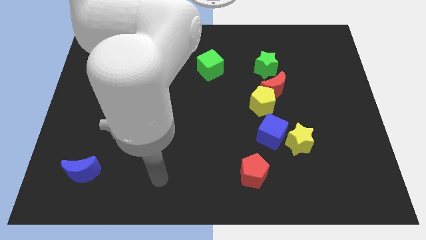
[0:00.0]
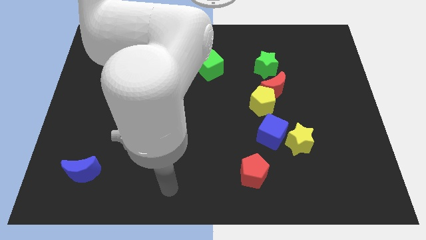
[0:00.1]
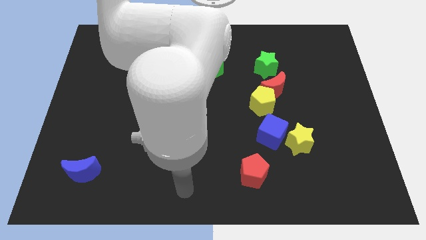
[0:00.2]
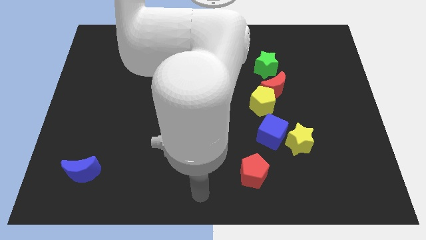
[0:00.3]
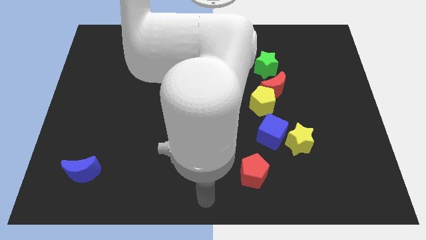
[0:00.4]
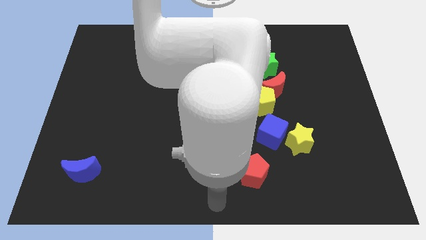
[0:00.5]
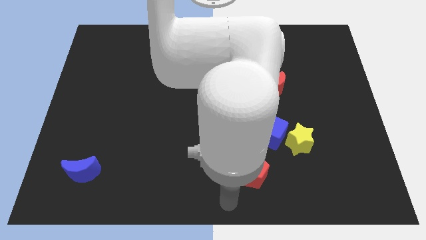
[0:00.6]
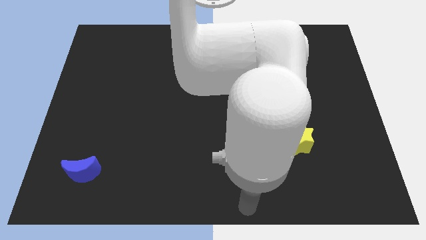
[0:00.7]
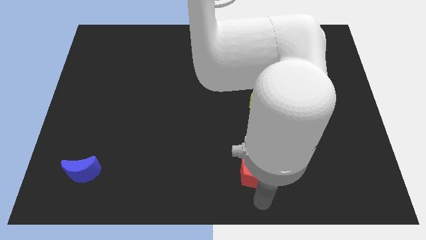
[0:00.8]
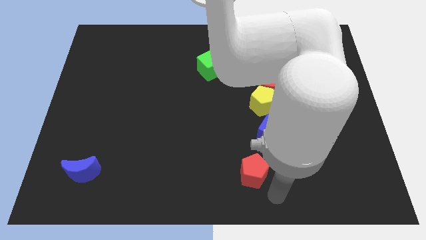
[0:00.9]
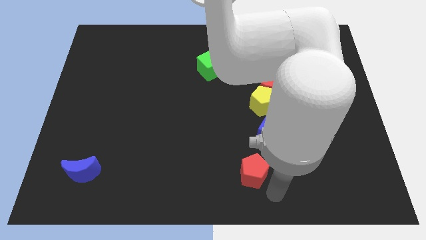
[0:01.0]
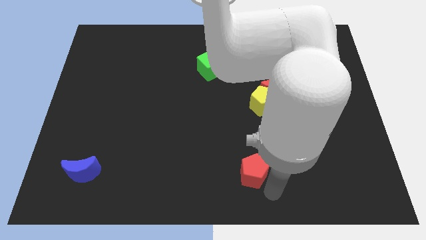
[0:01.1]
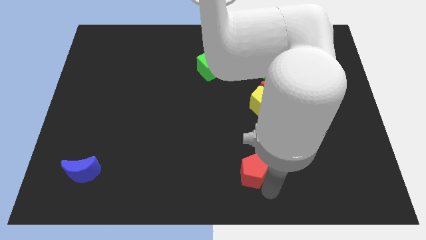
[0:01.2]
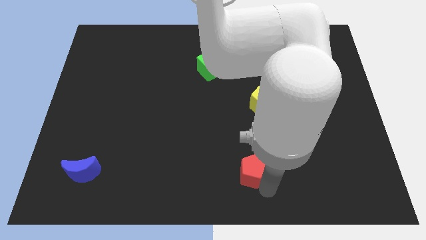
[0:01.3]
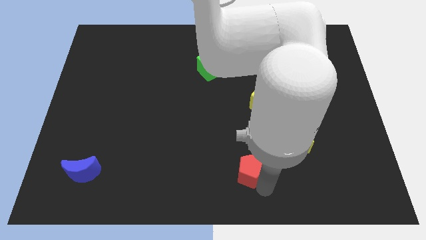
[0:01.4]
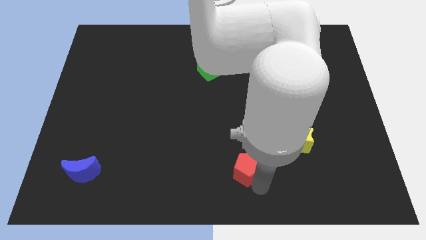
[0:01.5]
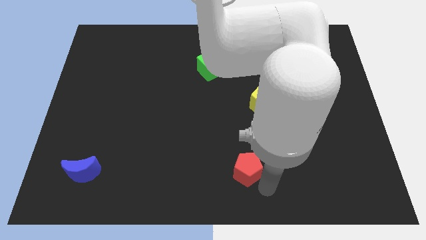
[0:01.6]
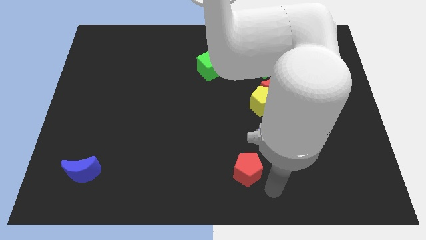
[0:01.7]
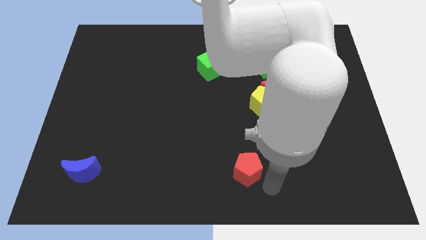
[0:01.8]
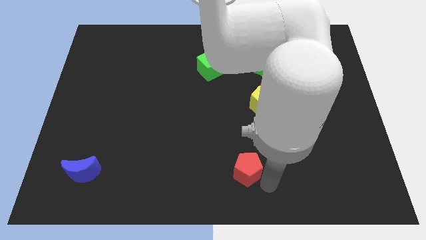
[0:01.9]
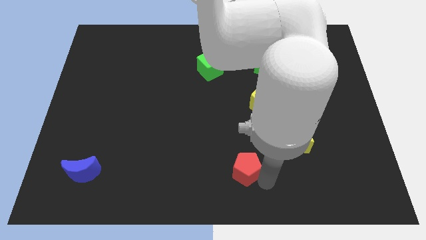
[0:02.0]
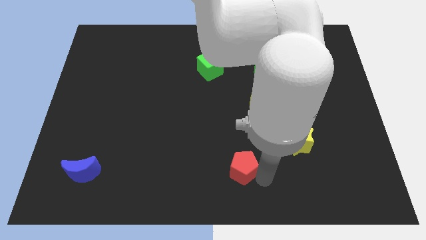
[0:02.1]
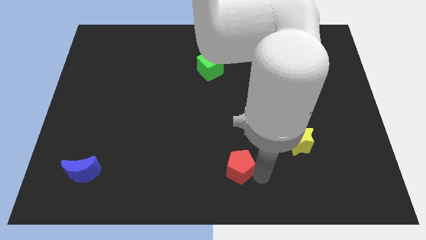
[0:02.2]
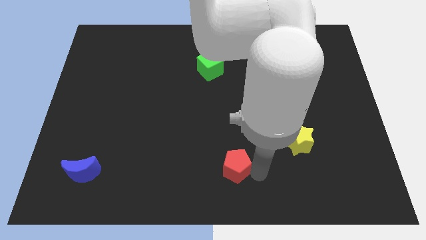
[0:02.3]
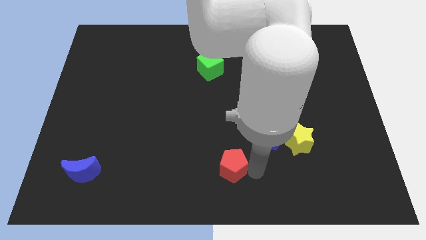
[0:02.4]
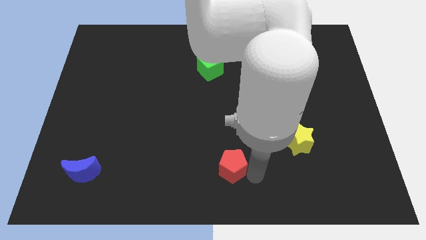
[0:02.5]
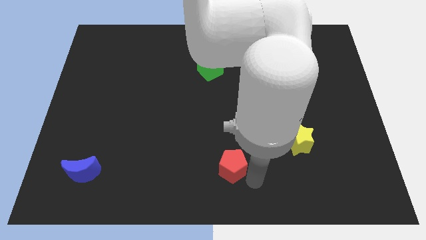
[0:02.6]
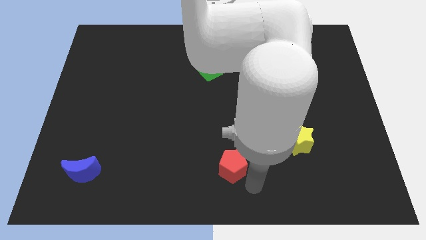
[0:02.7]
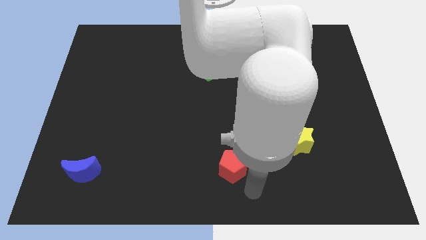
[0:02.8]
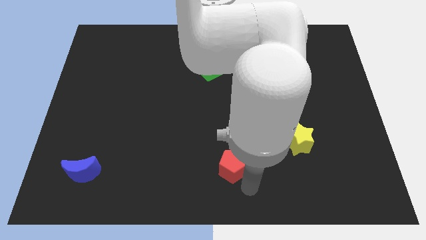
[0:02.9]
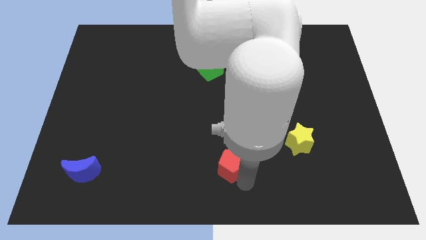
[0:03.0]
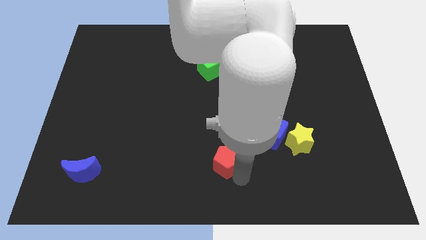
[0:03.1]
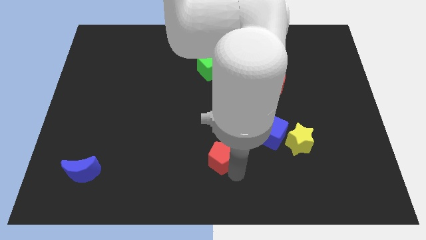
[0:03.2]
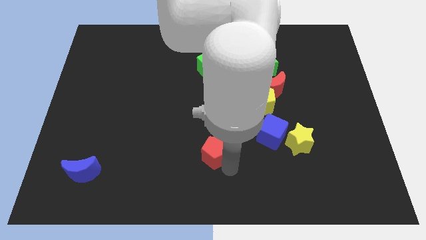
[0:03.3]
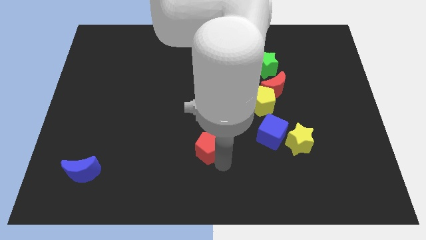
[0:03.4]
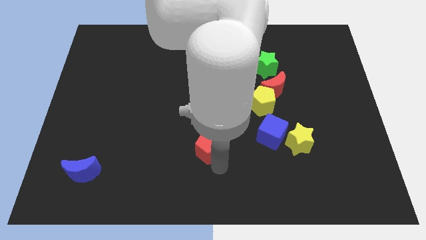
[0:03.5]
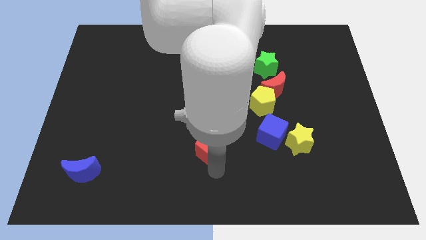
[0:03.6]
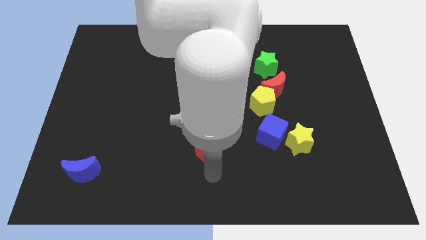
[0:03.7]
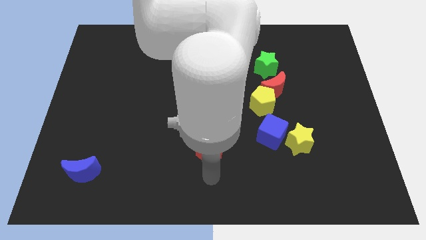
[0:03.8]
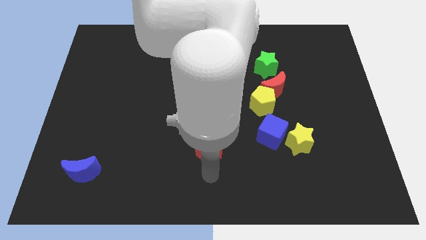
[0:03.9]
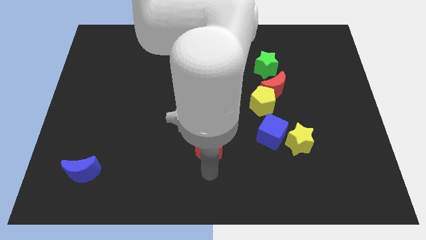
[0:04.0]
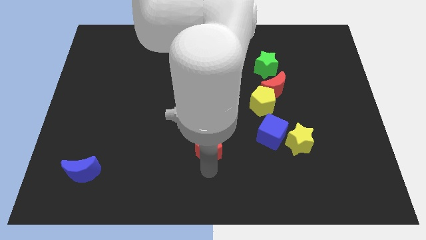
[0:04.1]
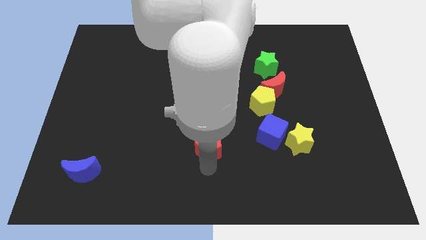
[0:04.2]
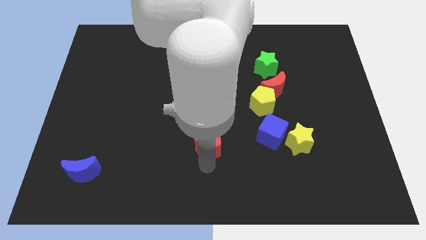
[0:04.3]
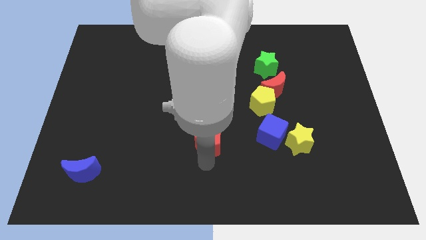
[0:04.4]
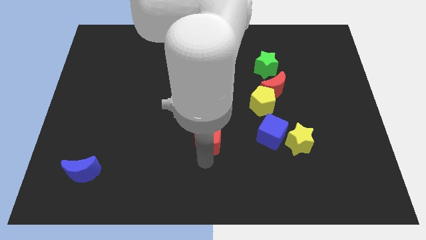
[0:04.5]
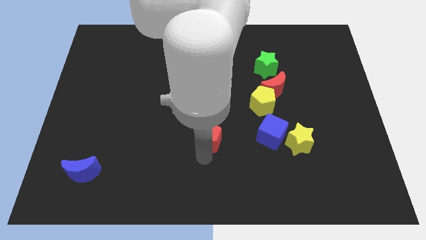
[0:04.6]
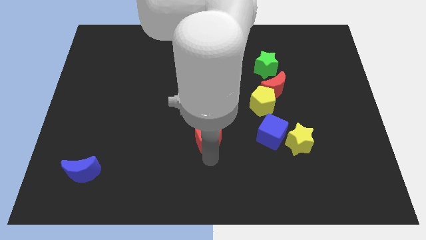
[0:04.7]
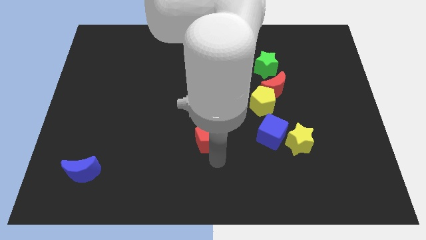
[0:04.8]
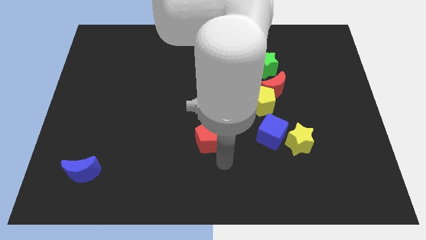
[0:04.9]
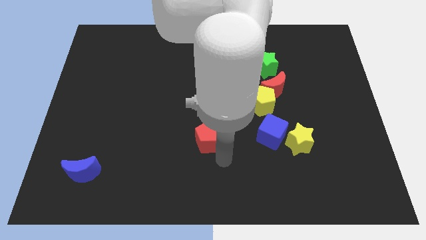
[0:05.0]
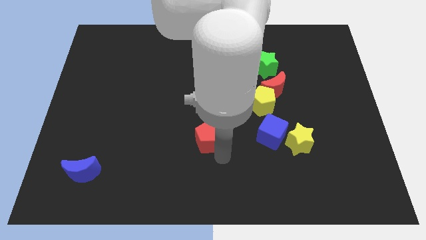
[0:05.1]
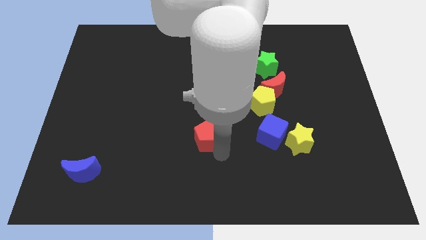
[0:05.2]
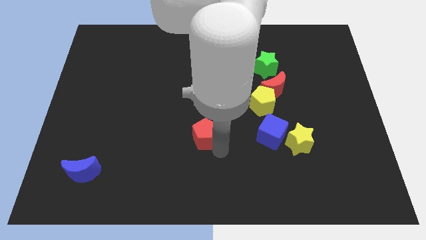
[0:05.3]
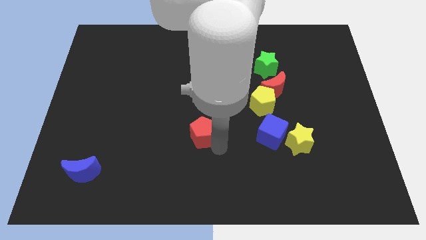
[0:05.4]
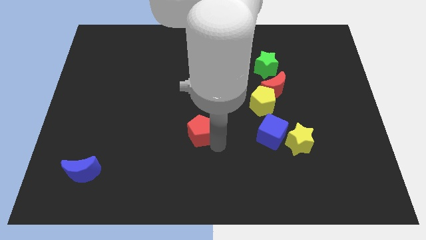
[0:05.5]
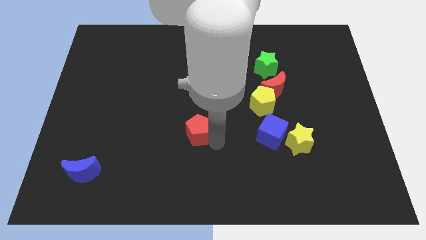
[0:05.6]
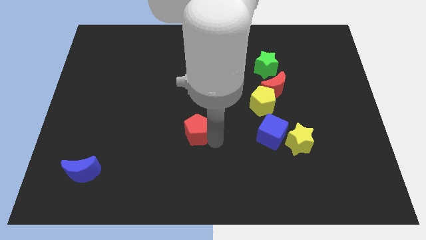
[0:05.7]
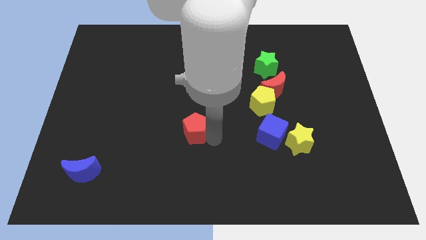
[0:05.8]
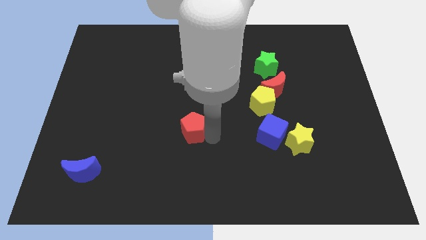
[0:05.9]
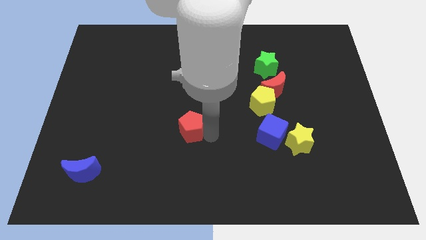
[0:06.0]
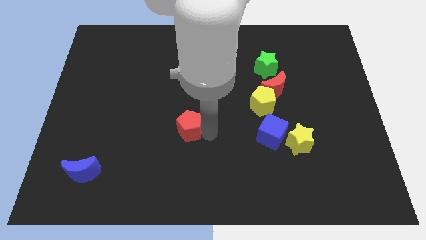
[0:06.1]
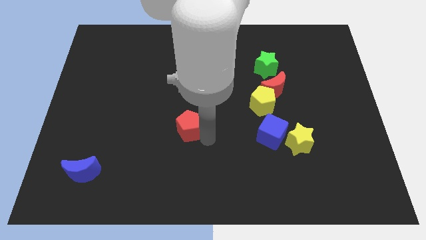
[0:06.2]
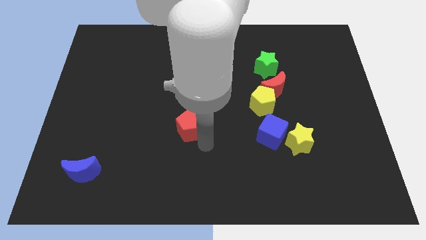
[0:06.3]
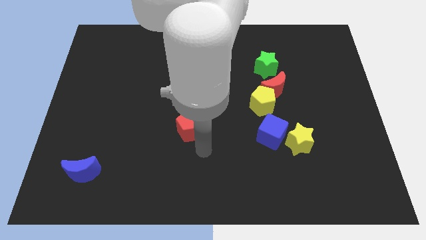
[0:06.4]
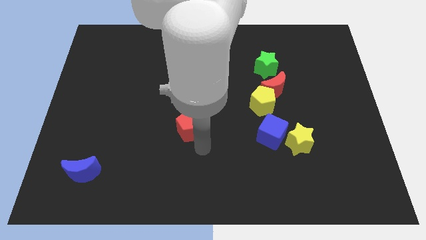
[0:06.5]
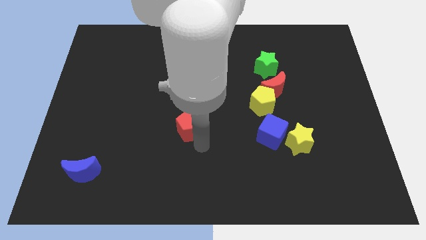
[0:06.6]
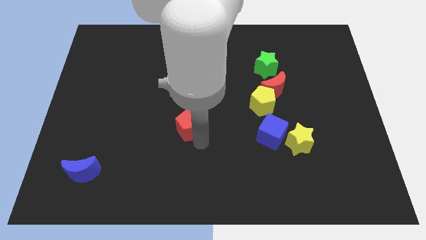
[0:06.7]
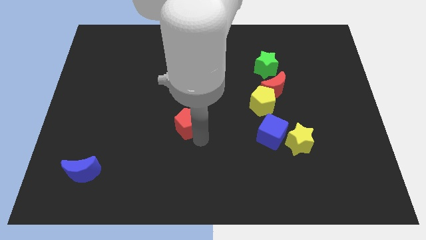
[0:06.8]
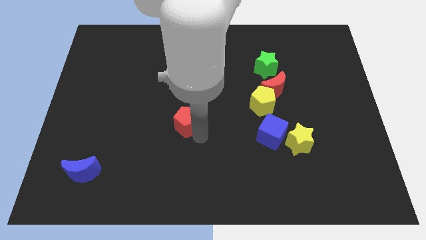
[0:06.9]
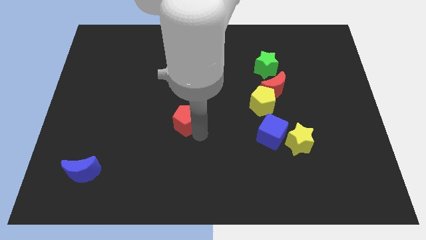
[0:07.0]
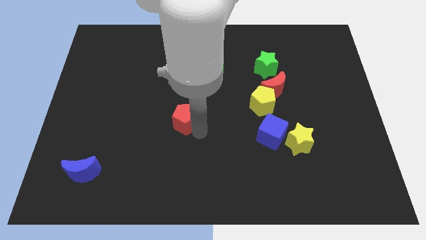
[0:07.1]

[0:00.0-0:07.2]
push the red pentagon up and left diagonally

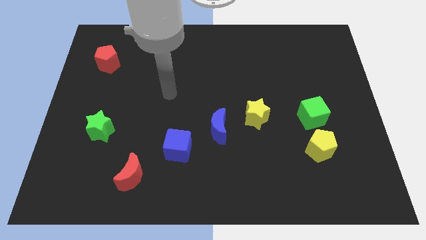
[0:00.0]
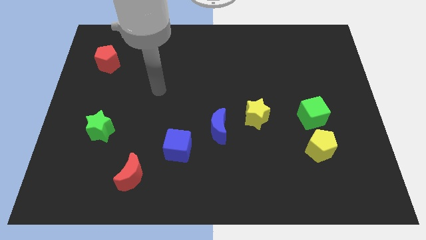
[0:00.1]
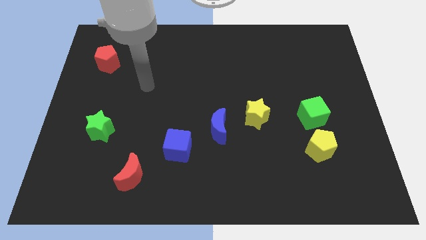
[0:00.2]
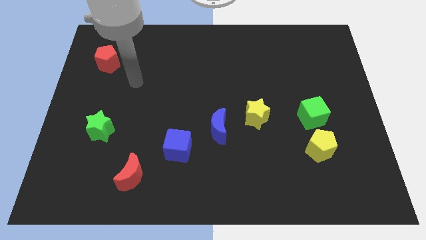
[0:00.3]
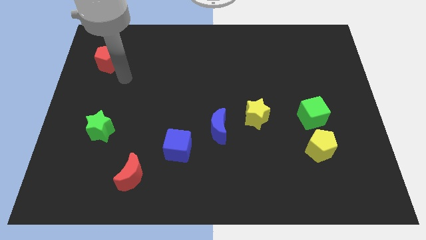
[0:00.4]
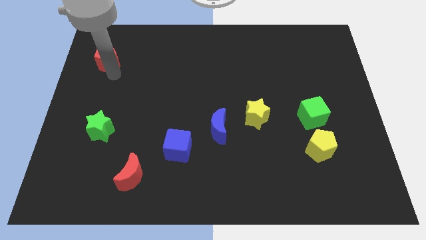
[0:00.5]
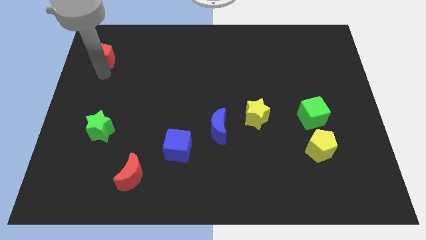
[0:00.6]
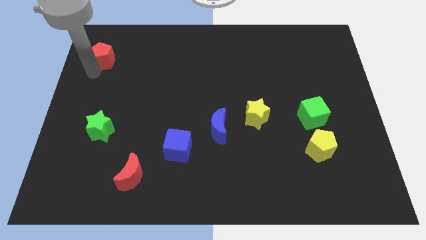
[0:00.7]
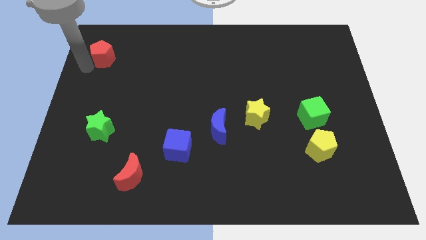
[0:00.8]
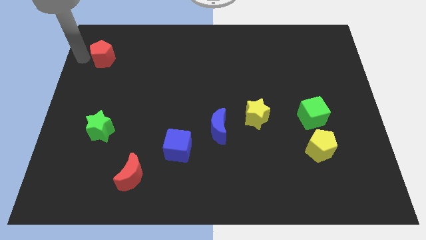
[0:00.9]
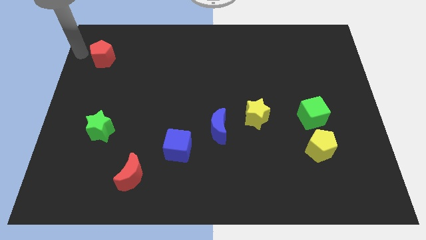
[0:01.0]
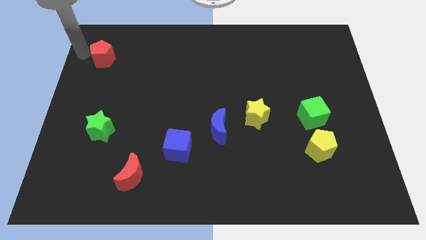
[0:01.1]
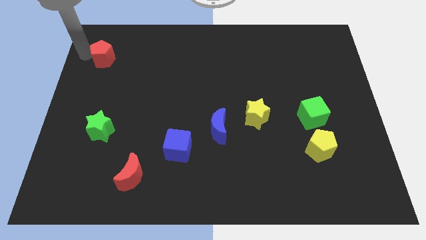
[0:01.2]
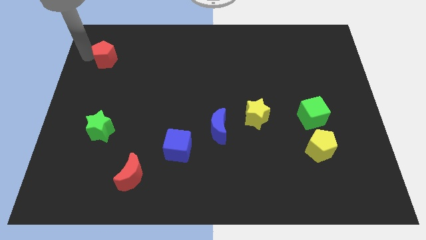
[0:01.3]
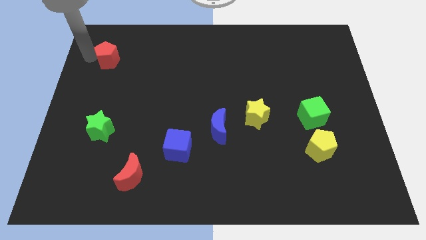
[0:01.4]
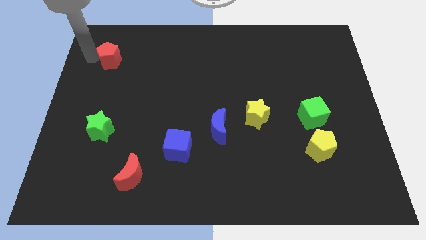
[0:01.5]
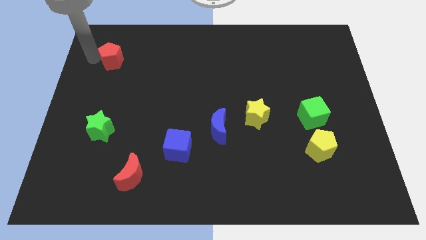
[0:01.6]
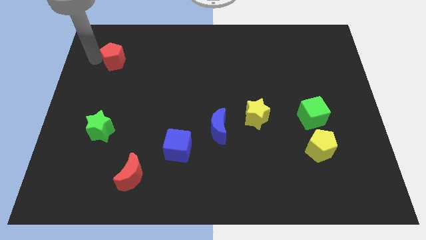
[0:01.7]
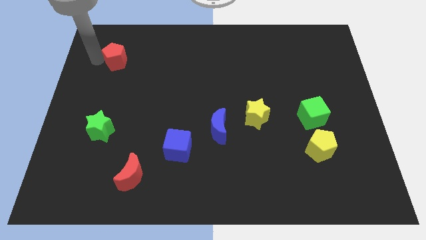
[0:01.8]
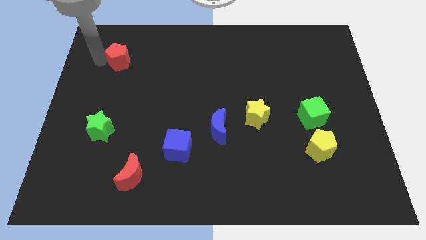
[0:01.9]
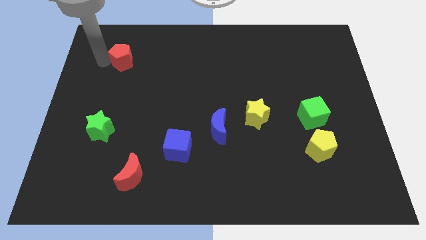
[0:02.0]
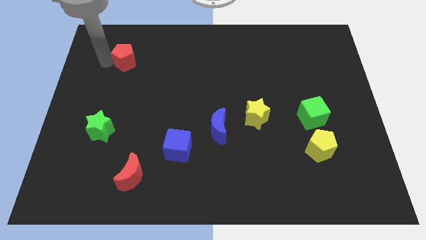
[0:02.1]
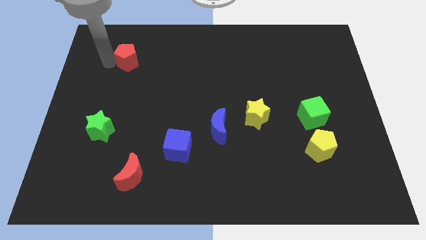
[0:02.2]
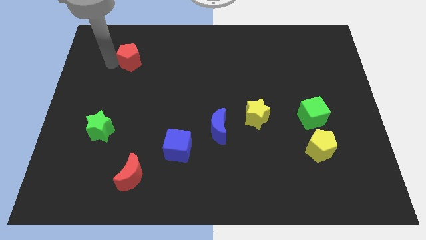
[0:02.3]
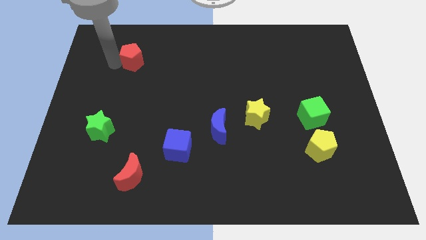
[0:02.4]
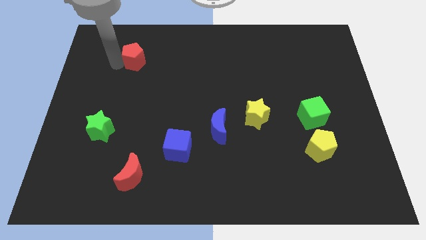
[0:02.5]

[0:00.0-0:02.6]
slightly push the red pentagon right
